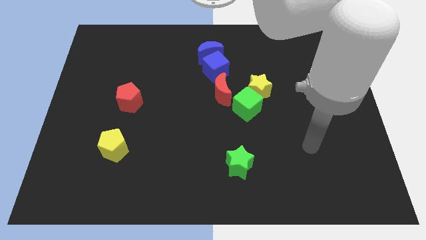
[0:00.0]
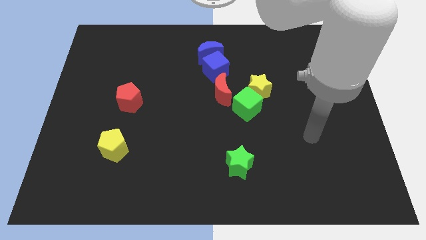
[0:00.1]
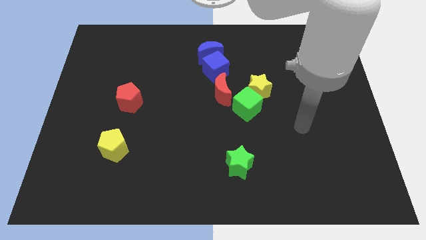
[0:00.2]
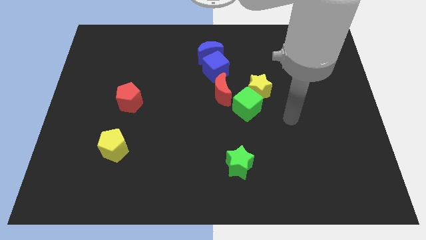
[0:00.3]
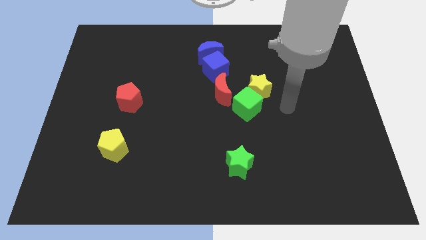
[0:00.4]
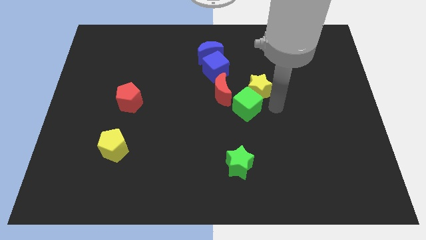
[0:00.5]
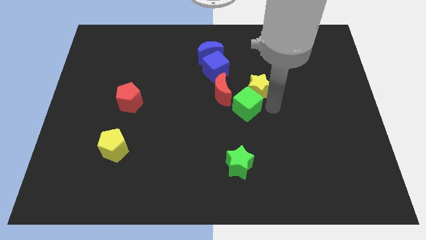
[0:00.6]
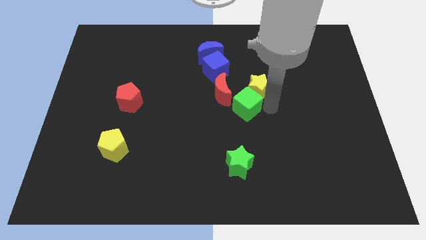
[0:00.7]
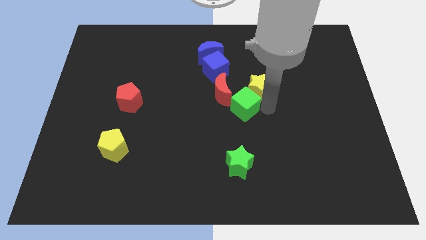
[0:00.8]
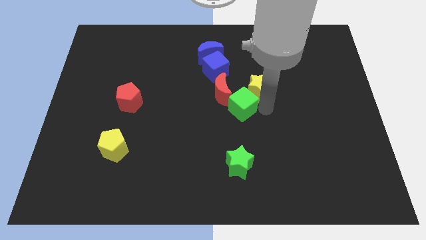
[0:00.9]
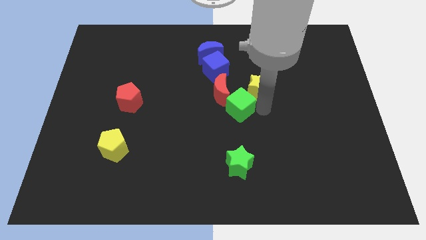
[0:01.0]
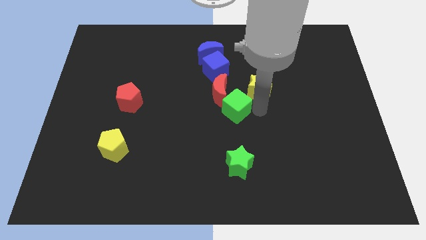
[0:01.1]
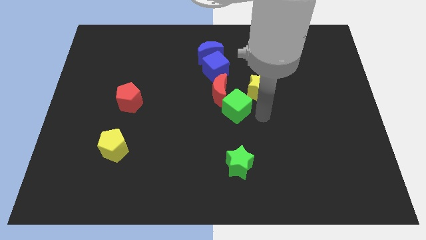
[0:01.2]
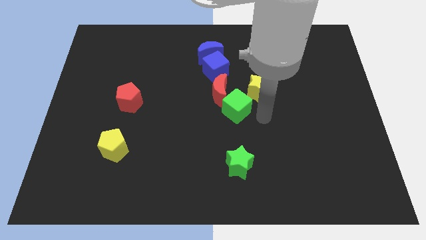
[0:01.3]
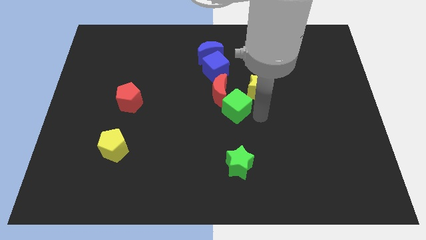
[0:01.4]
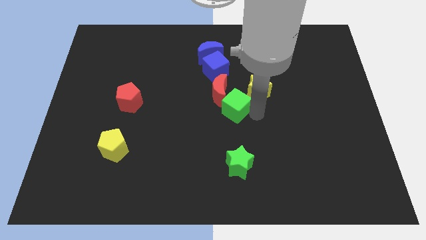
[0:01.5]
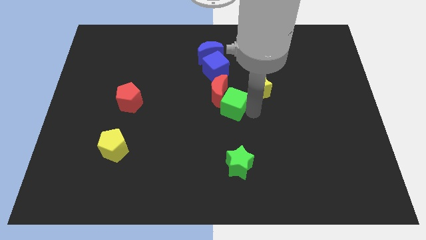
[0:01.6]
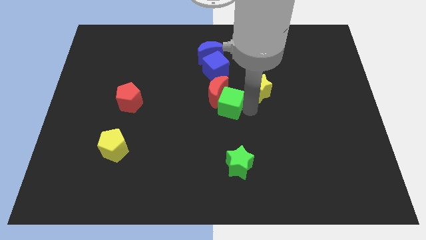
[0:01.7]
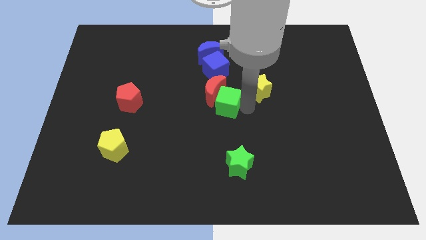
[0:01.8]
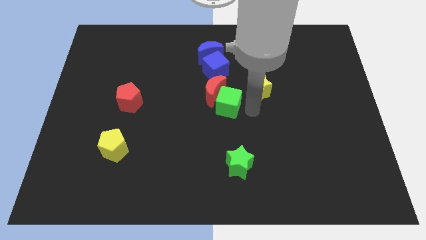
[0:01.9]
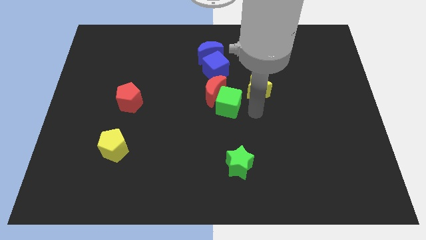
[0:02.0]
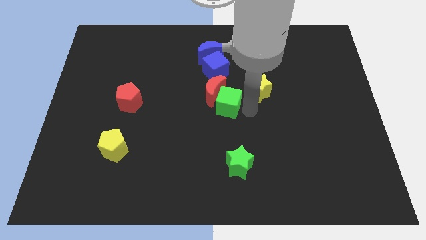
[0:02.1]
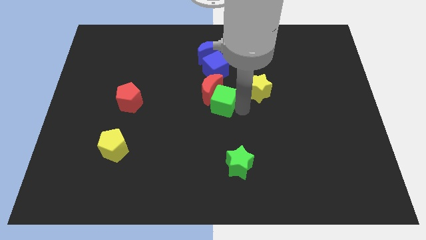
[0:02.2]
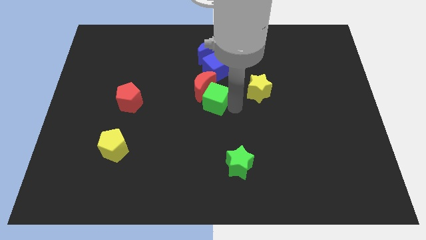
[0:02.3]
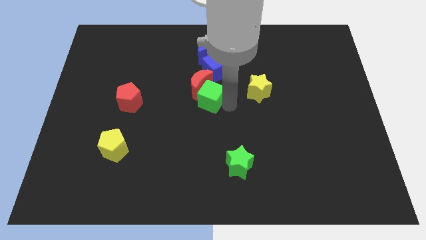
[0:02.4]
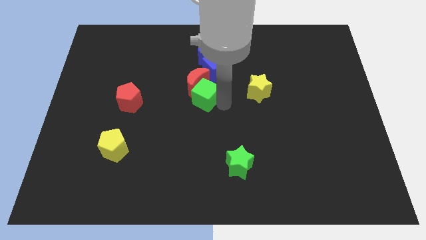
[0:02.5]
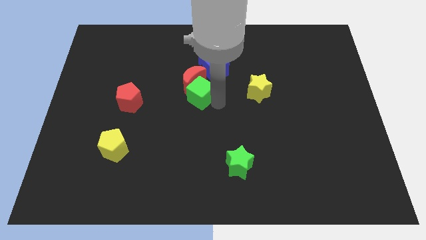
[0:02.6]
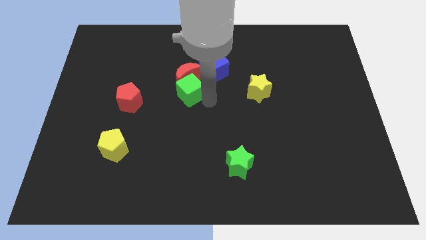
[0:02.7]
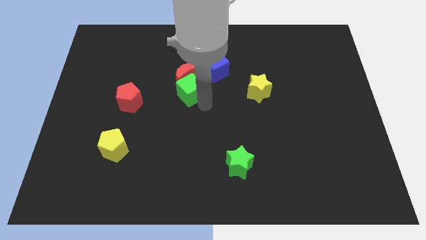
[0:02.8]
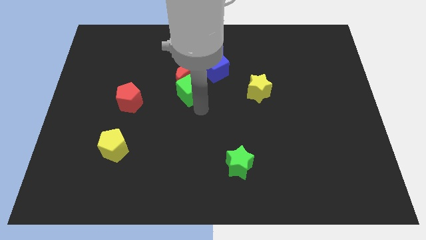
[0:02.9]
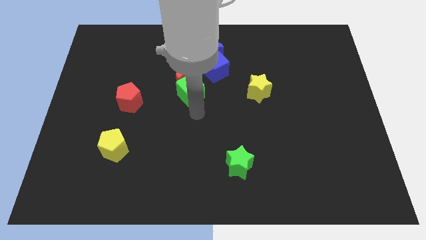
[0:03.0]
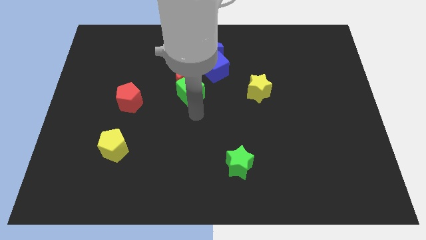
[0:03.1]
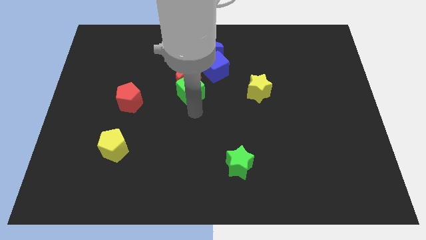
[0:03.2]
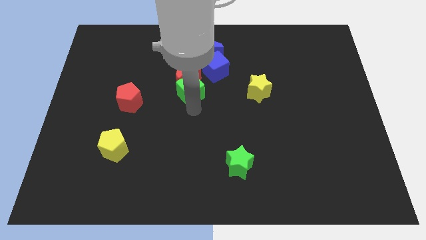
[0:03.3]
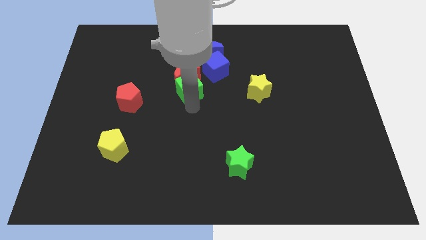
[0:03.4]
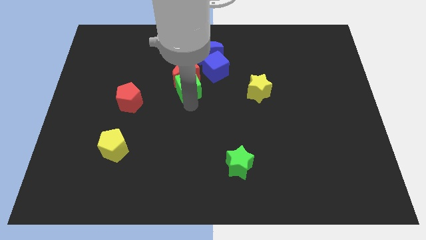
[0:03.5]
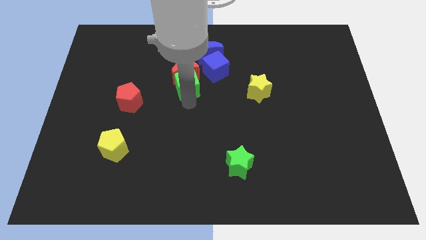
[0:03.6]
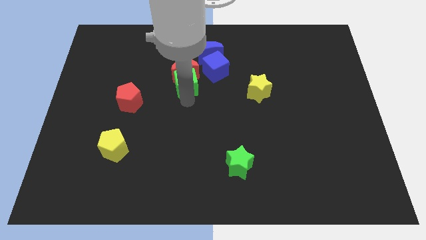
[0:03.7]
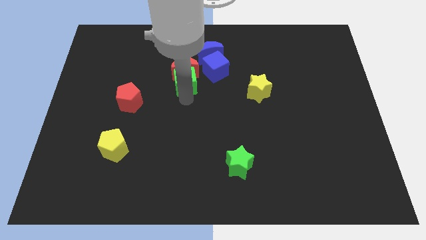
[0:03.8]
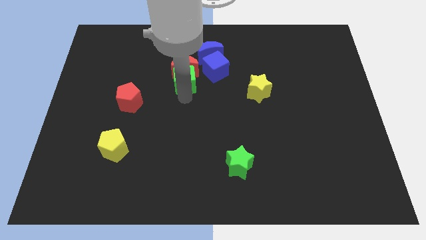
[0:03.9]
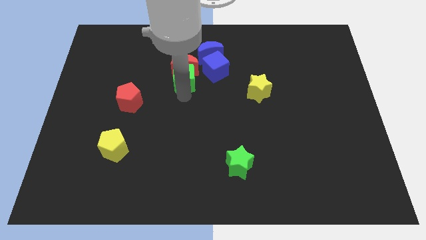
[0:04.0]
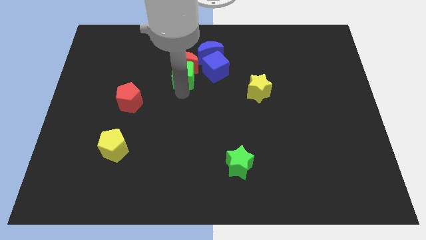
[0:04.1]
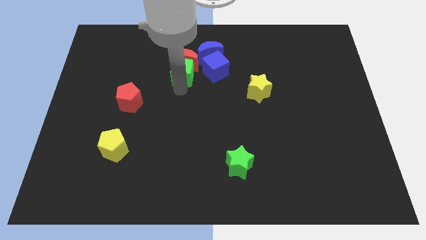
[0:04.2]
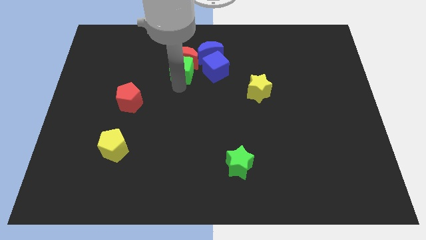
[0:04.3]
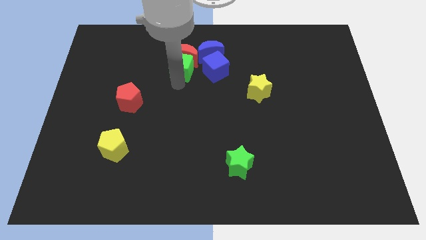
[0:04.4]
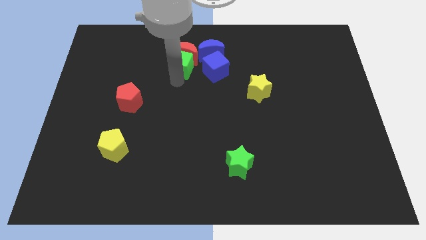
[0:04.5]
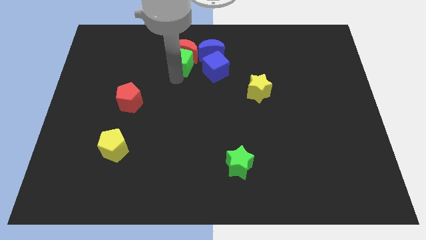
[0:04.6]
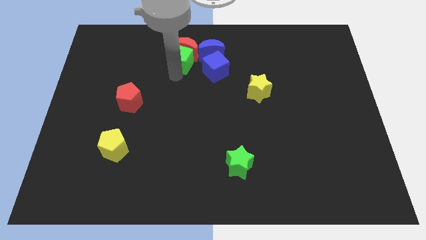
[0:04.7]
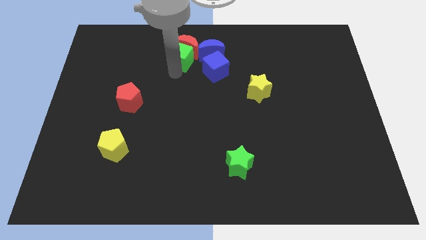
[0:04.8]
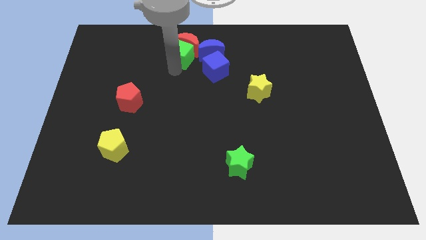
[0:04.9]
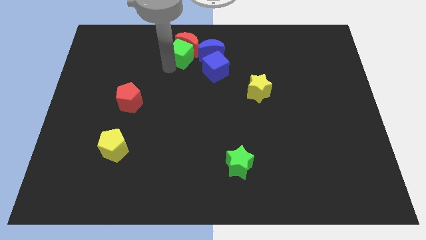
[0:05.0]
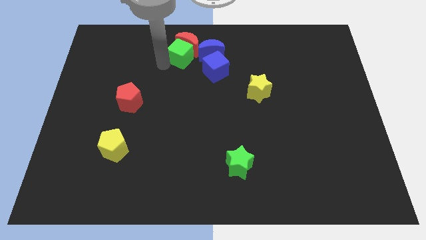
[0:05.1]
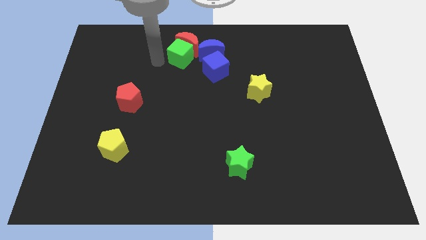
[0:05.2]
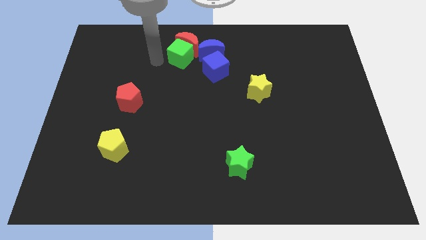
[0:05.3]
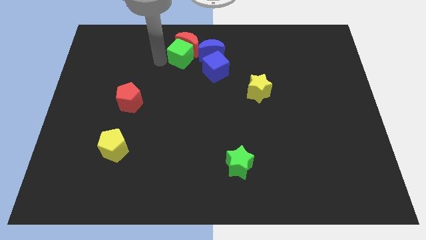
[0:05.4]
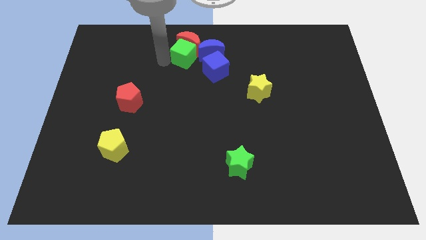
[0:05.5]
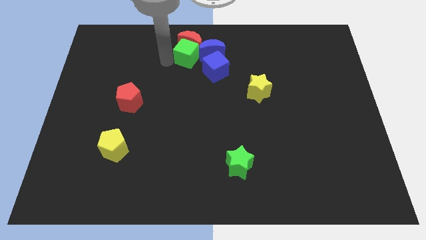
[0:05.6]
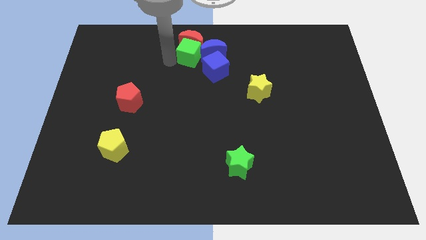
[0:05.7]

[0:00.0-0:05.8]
move the green cube close to the blue moon

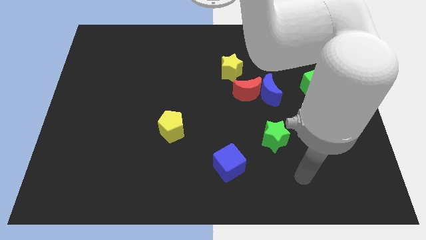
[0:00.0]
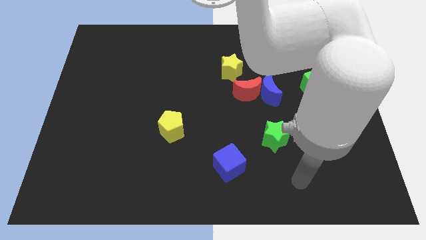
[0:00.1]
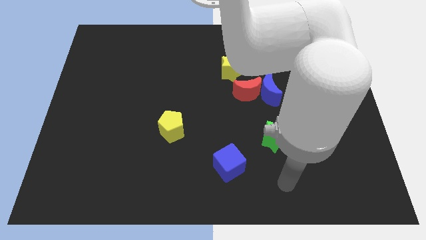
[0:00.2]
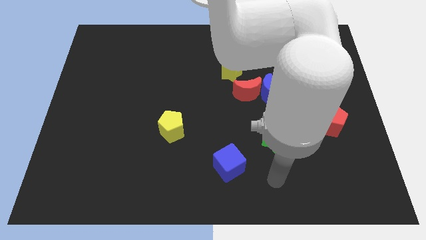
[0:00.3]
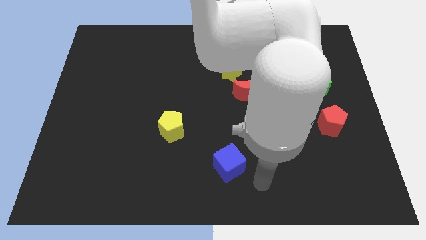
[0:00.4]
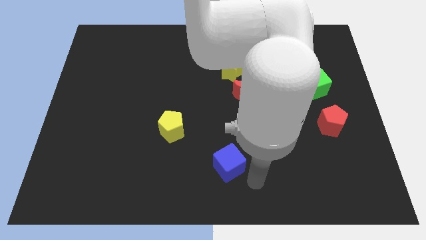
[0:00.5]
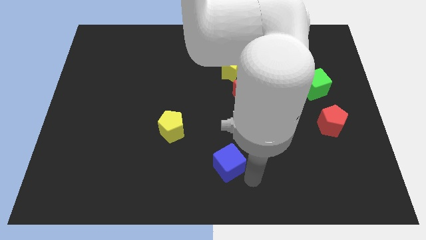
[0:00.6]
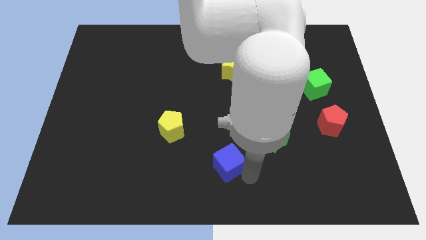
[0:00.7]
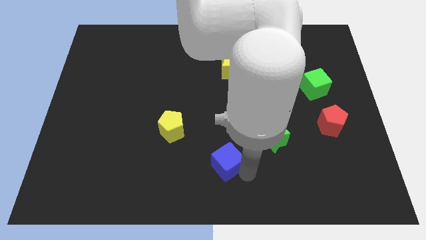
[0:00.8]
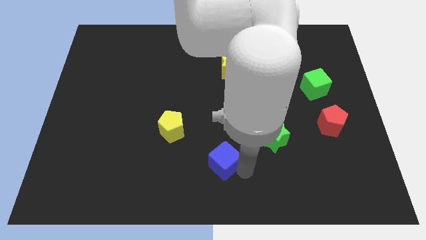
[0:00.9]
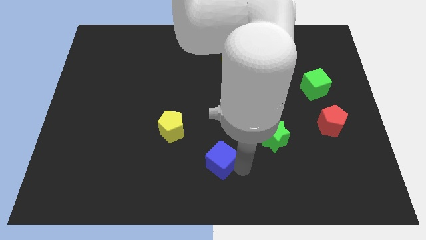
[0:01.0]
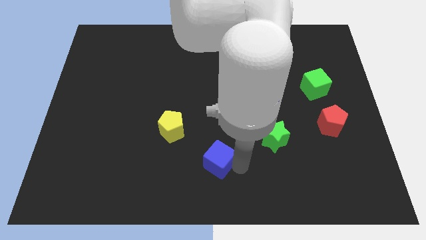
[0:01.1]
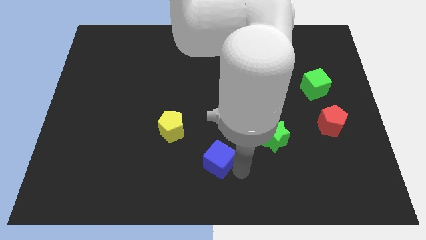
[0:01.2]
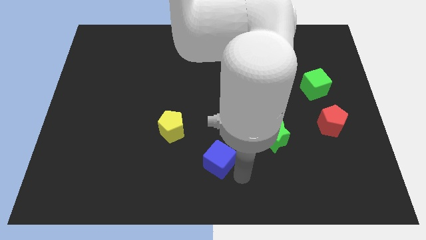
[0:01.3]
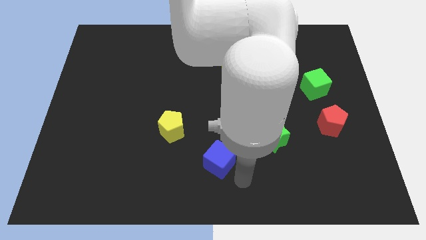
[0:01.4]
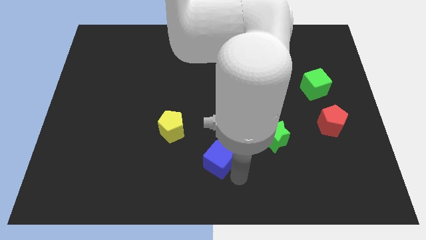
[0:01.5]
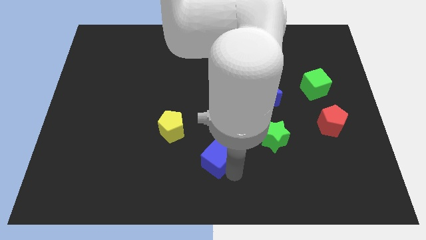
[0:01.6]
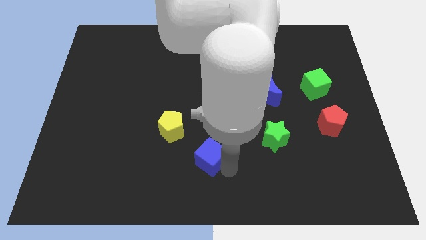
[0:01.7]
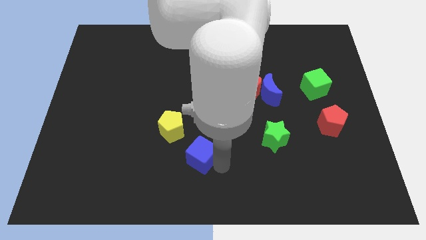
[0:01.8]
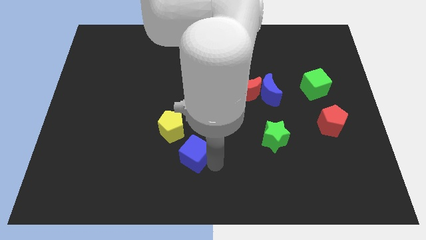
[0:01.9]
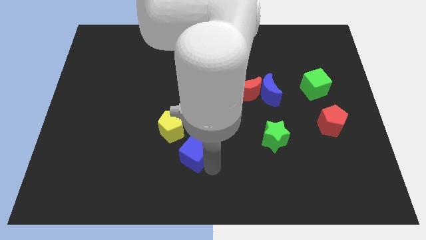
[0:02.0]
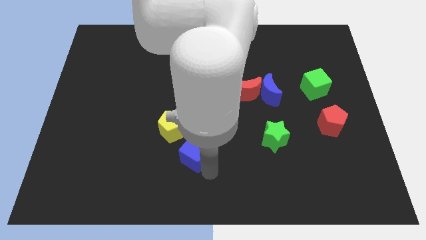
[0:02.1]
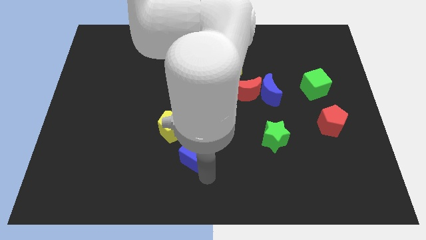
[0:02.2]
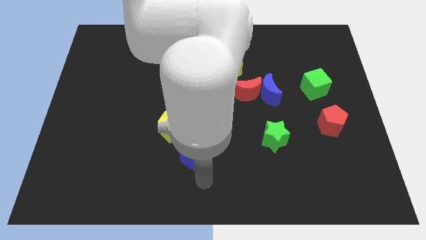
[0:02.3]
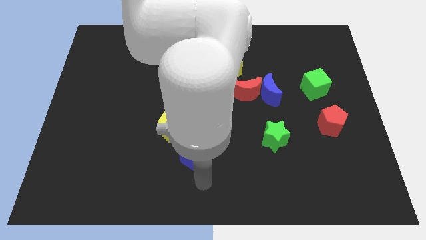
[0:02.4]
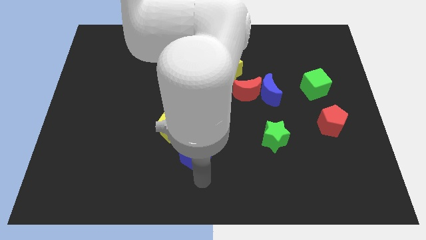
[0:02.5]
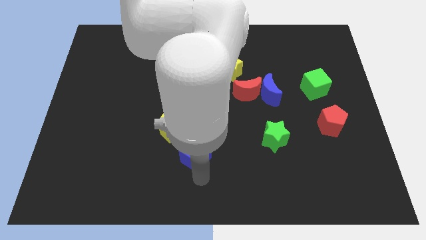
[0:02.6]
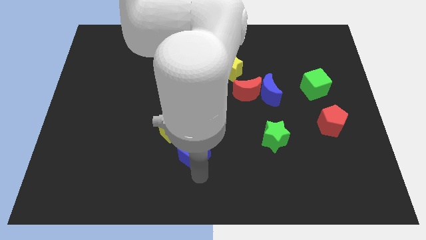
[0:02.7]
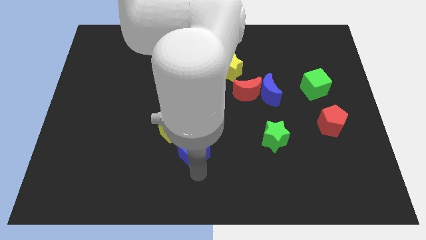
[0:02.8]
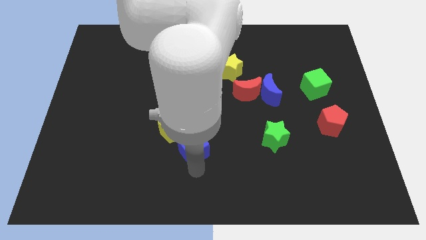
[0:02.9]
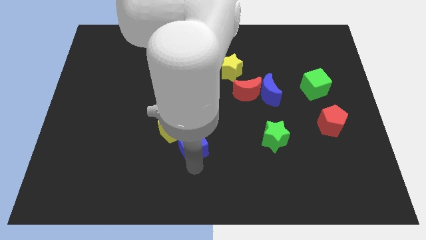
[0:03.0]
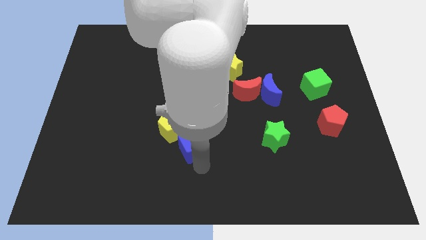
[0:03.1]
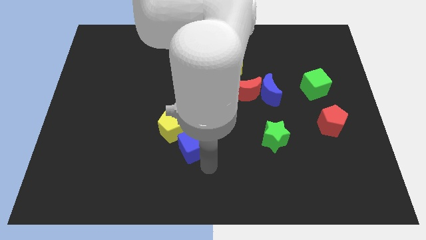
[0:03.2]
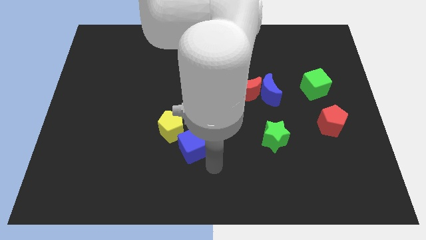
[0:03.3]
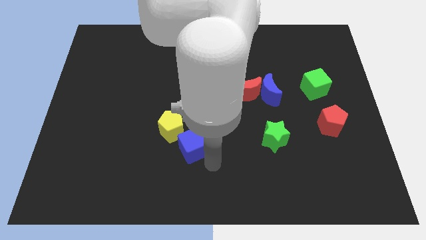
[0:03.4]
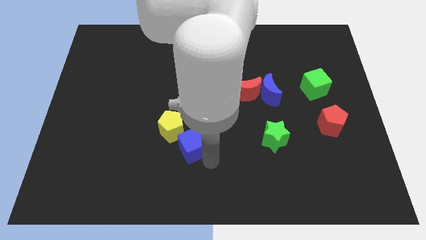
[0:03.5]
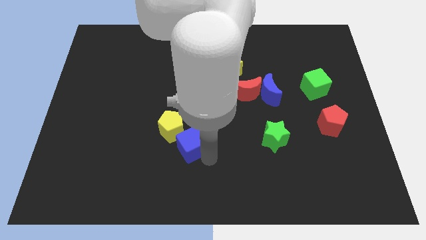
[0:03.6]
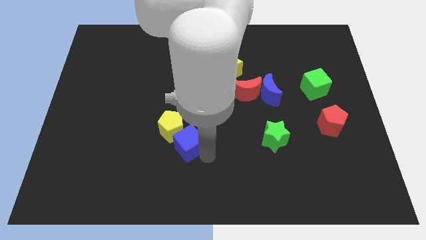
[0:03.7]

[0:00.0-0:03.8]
move the blue cube next to the yellow pentagon
